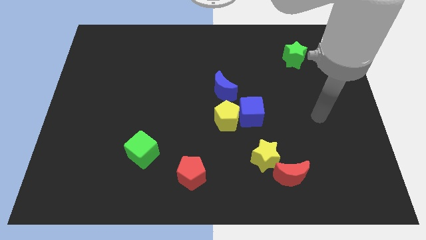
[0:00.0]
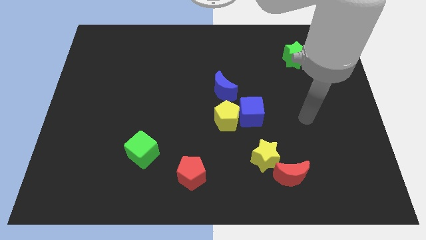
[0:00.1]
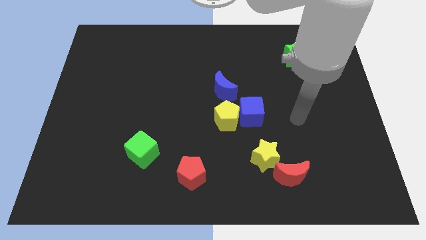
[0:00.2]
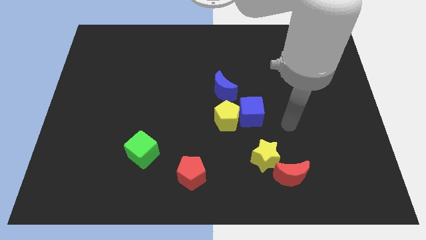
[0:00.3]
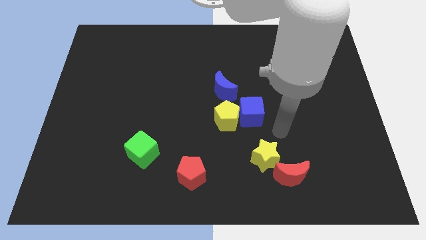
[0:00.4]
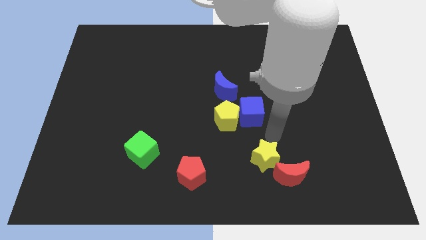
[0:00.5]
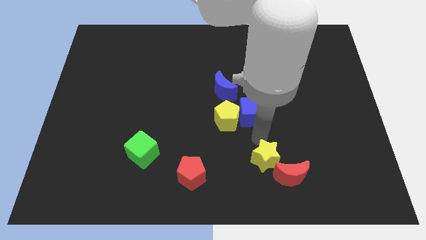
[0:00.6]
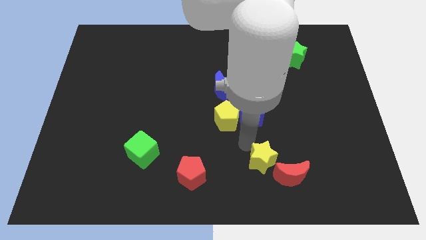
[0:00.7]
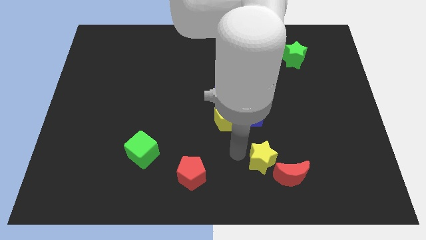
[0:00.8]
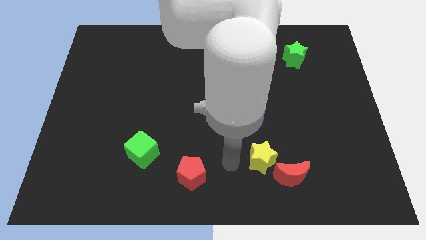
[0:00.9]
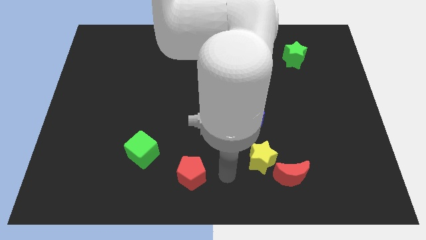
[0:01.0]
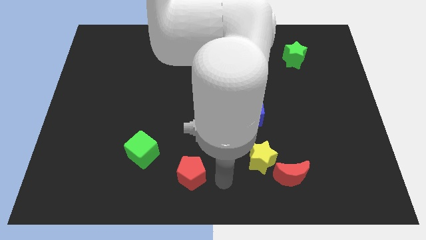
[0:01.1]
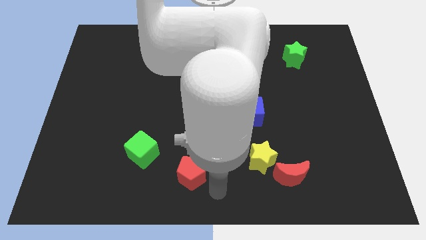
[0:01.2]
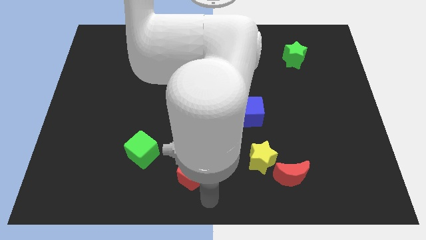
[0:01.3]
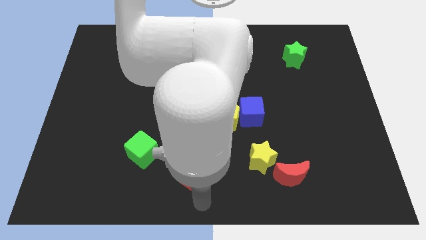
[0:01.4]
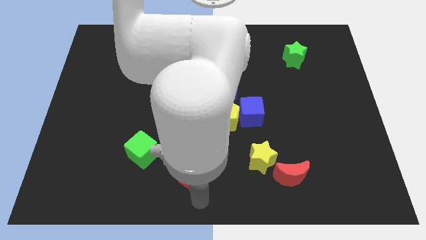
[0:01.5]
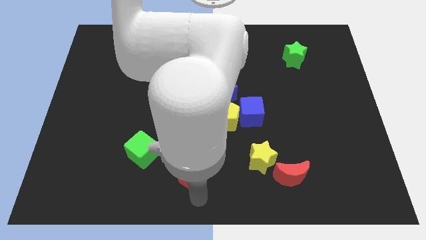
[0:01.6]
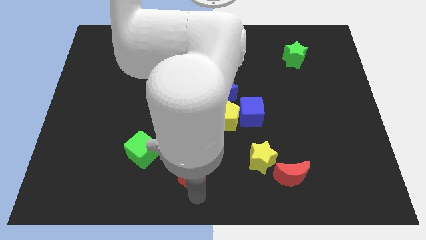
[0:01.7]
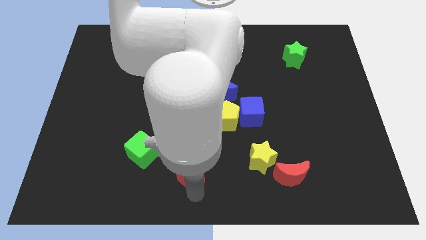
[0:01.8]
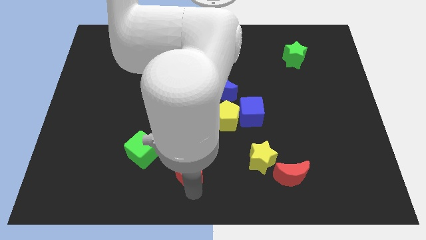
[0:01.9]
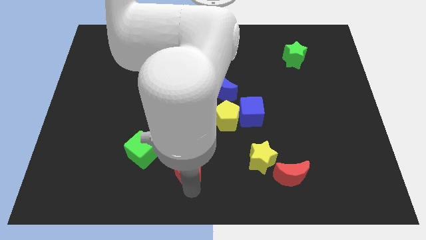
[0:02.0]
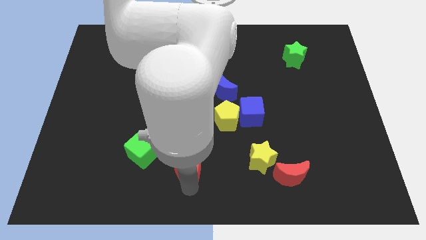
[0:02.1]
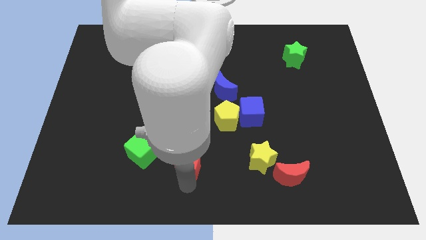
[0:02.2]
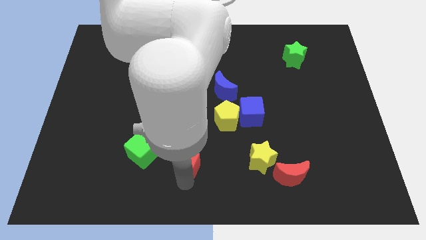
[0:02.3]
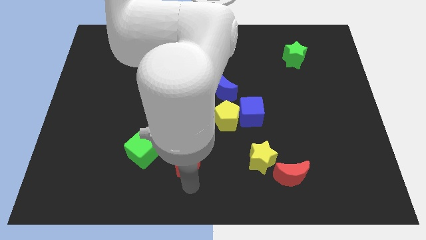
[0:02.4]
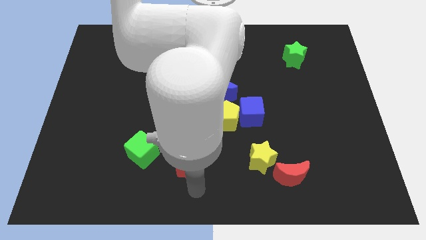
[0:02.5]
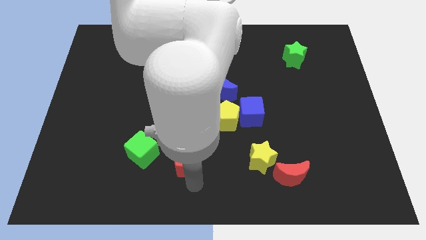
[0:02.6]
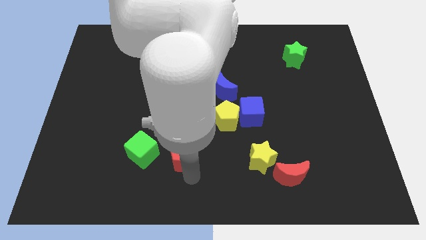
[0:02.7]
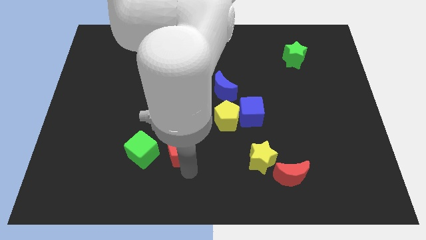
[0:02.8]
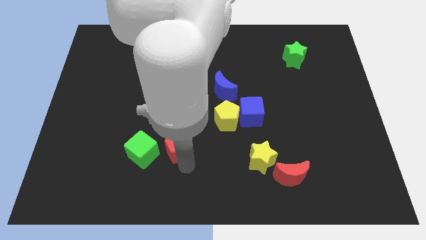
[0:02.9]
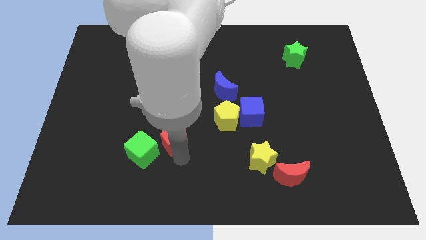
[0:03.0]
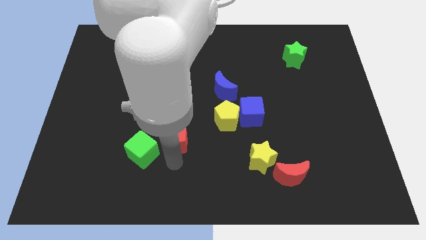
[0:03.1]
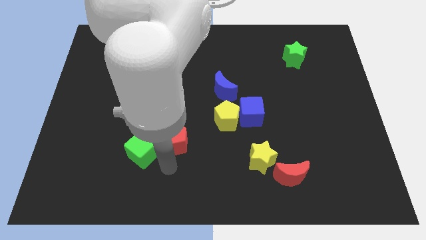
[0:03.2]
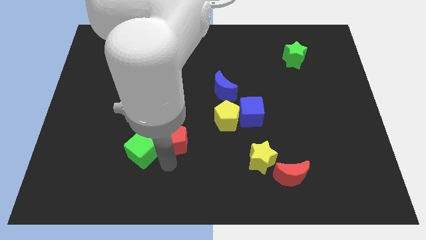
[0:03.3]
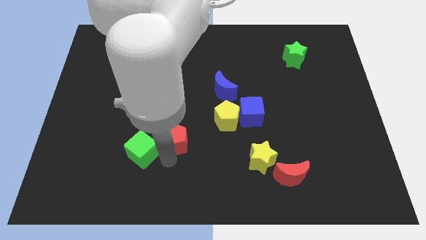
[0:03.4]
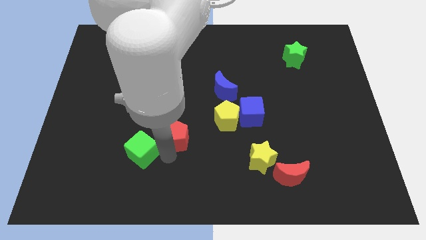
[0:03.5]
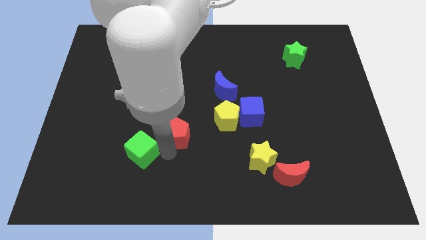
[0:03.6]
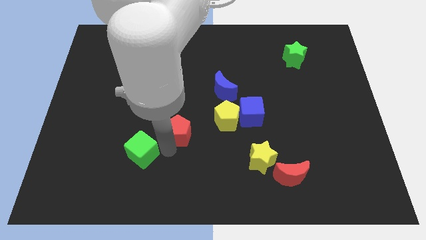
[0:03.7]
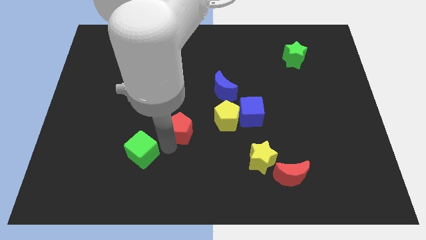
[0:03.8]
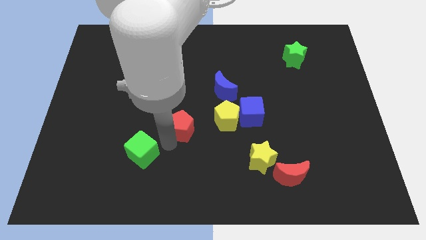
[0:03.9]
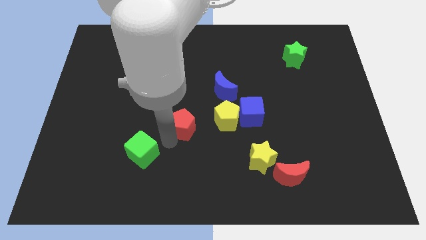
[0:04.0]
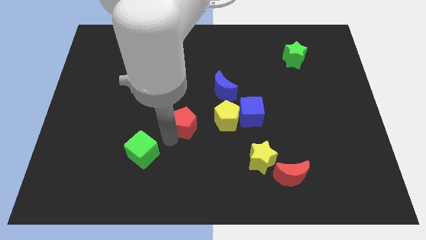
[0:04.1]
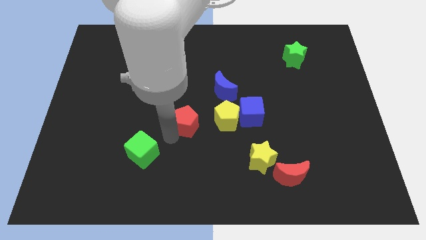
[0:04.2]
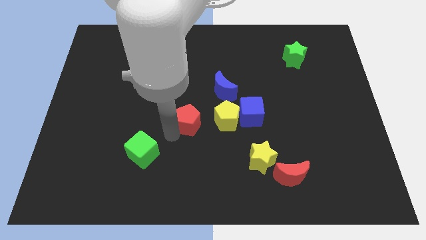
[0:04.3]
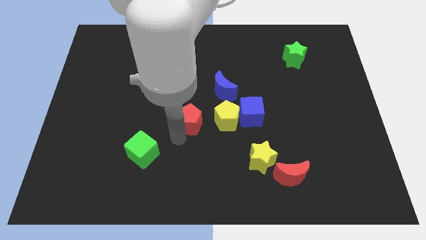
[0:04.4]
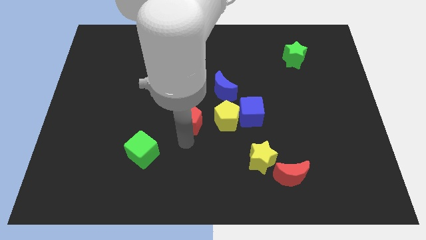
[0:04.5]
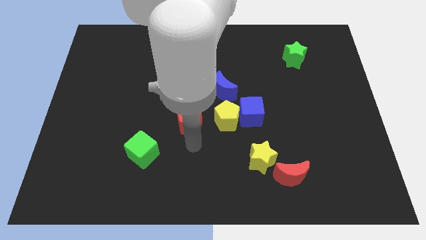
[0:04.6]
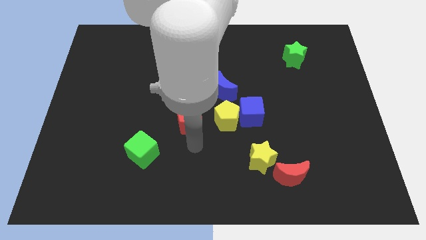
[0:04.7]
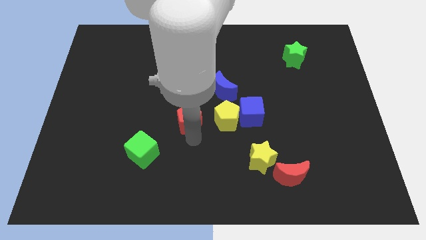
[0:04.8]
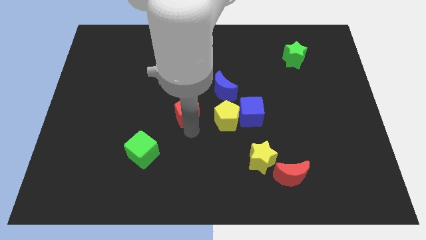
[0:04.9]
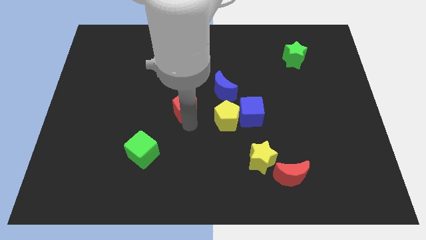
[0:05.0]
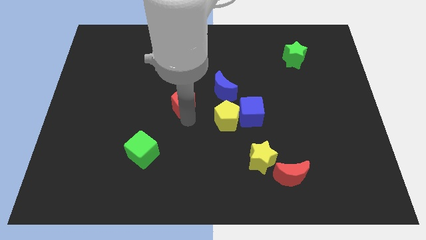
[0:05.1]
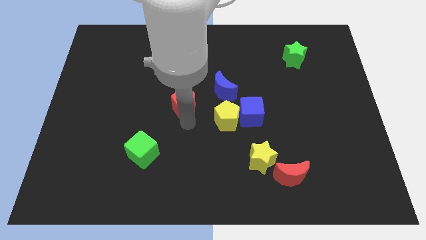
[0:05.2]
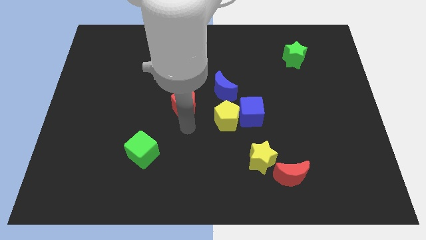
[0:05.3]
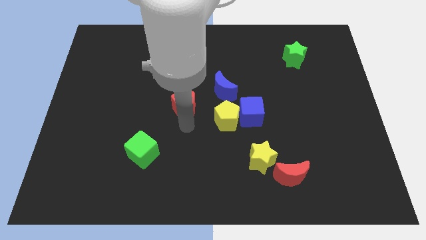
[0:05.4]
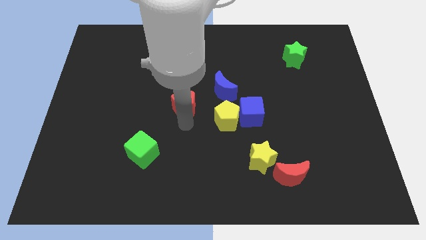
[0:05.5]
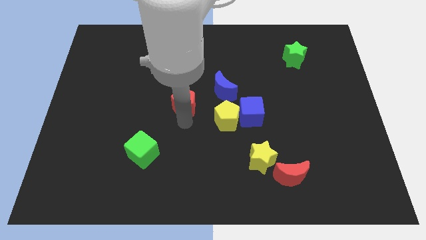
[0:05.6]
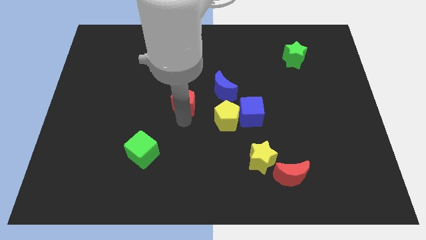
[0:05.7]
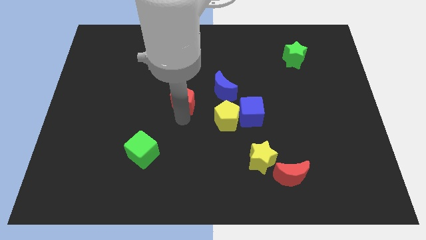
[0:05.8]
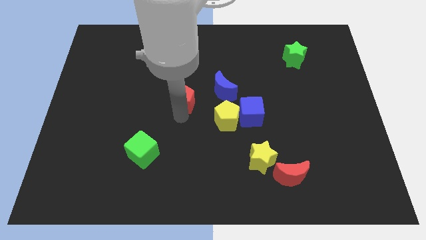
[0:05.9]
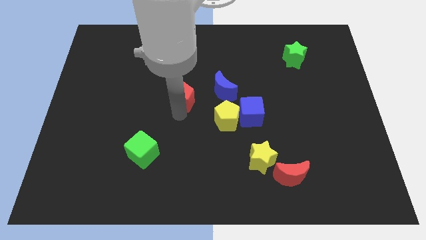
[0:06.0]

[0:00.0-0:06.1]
move the red pentagon up

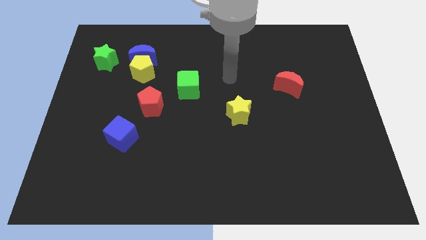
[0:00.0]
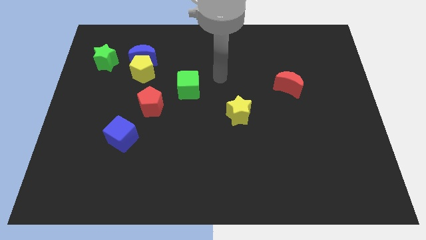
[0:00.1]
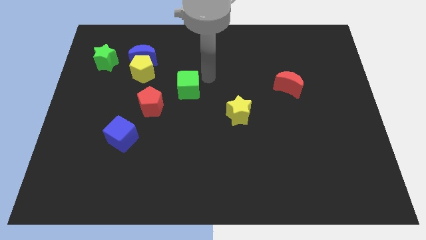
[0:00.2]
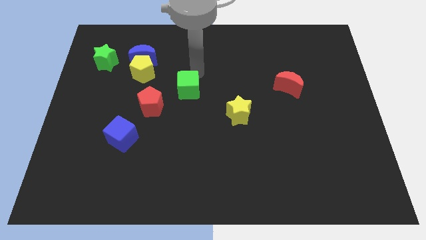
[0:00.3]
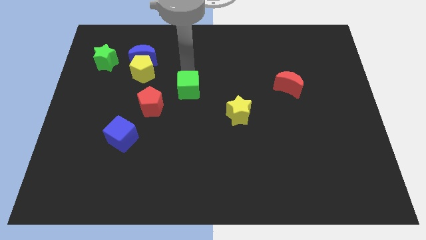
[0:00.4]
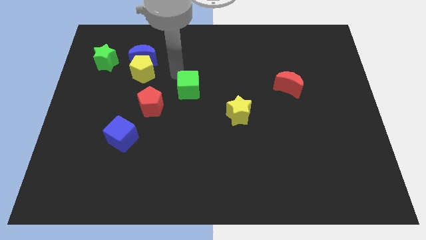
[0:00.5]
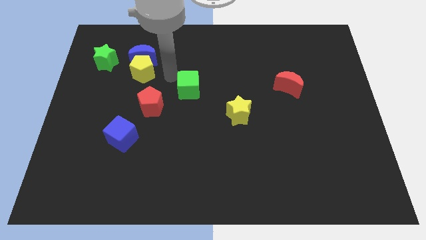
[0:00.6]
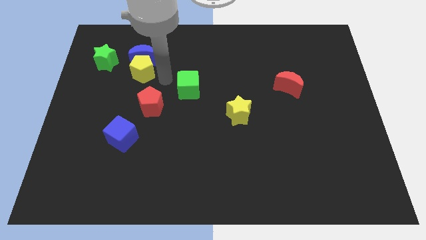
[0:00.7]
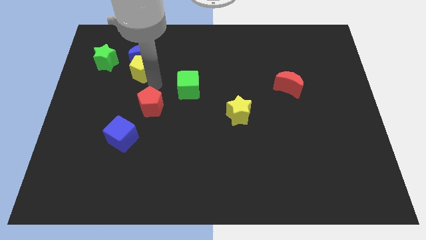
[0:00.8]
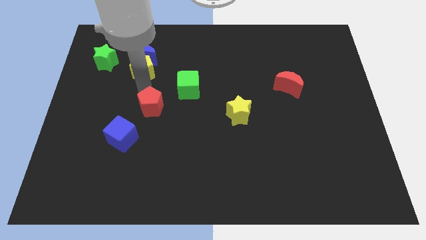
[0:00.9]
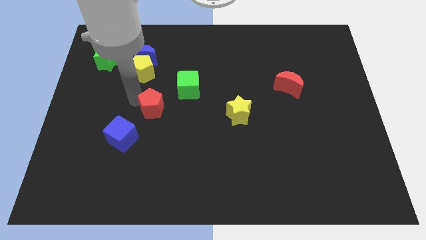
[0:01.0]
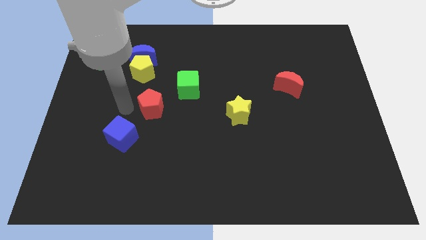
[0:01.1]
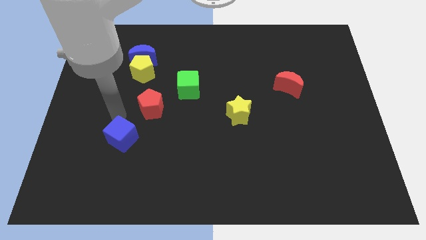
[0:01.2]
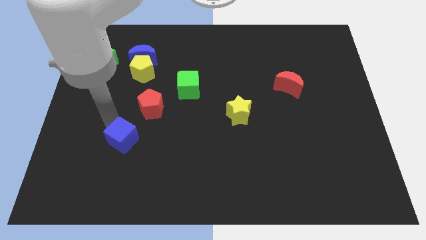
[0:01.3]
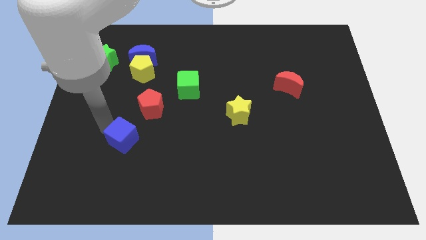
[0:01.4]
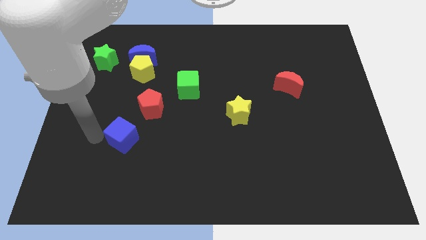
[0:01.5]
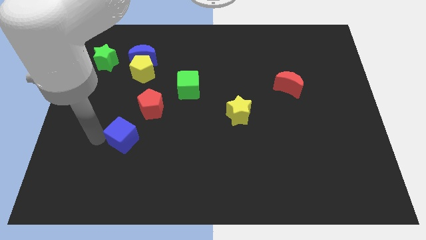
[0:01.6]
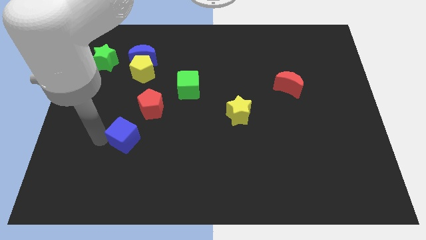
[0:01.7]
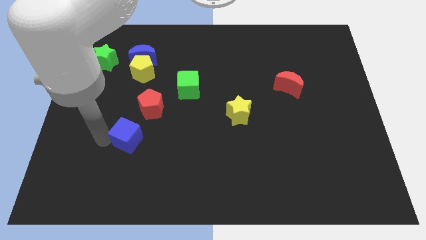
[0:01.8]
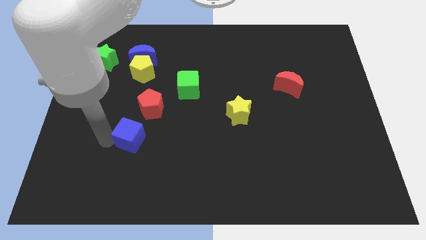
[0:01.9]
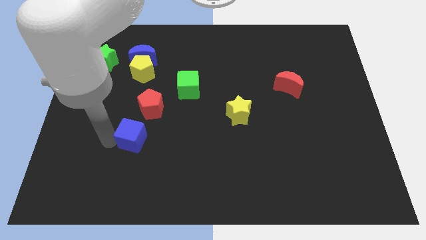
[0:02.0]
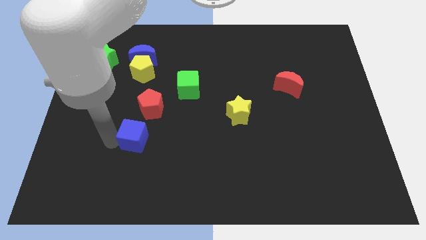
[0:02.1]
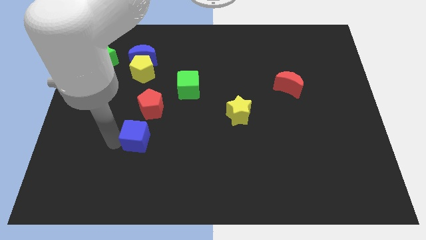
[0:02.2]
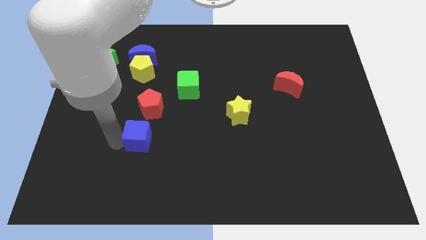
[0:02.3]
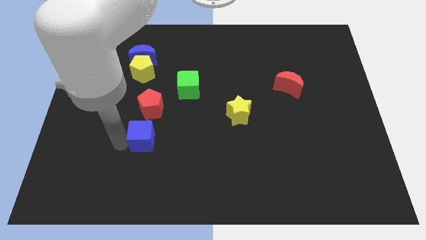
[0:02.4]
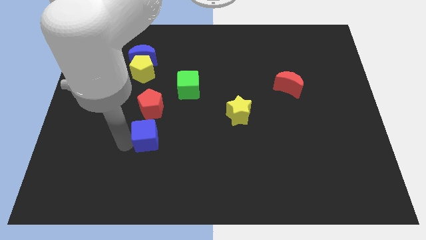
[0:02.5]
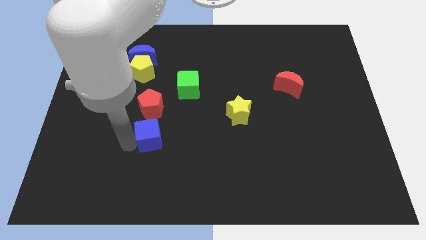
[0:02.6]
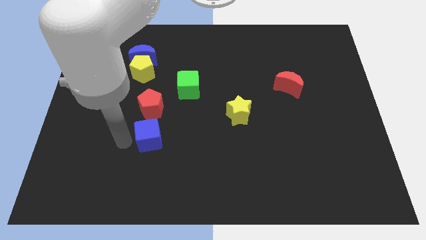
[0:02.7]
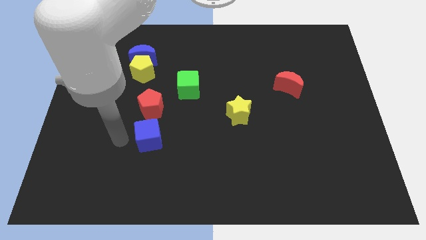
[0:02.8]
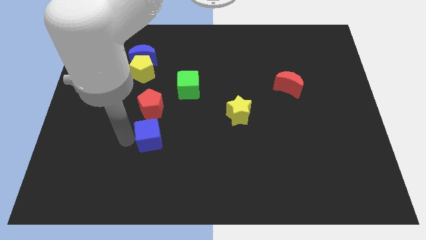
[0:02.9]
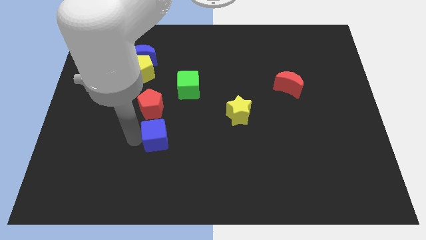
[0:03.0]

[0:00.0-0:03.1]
push the blue cube a little bit right
